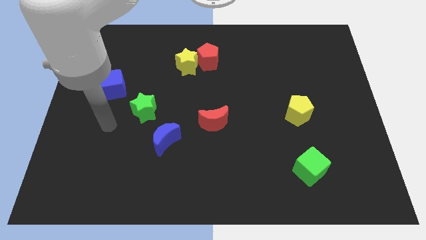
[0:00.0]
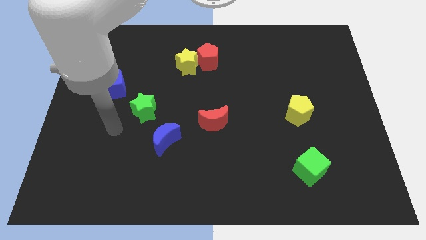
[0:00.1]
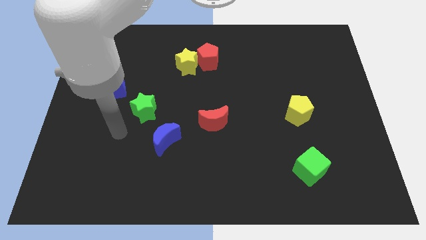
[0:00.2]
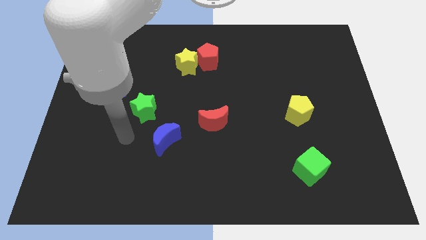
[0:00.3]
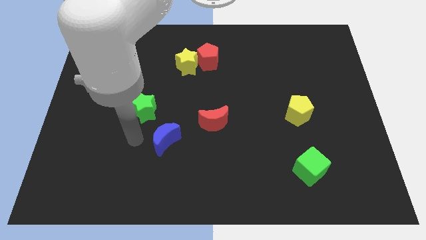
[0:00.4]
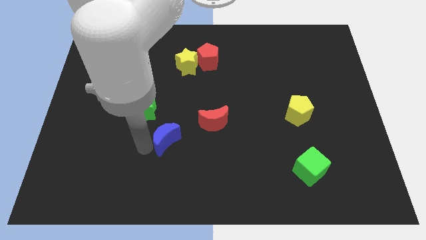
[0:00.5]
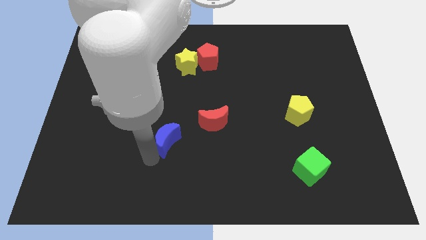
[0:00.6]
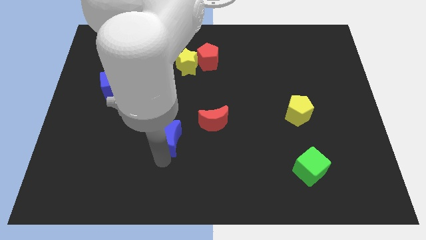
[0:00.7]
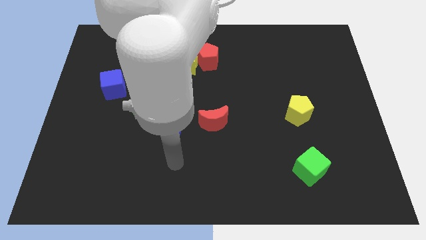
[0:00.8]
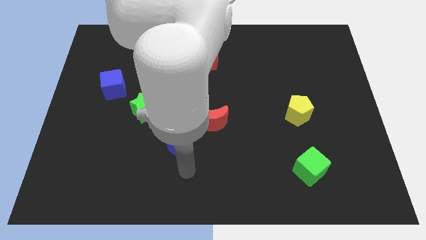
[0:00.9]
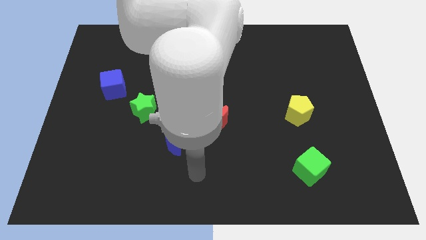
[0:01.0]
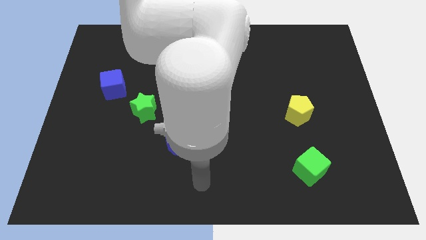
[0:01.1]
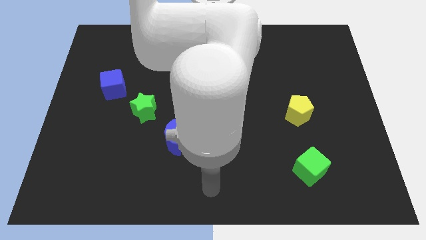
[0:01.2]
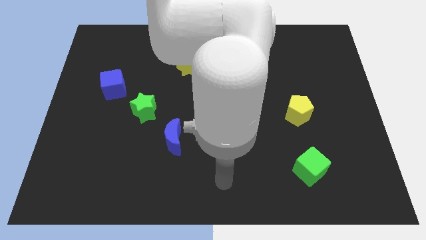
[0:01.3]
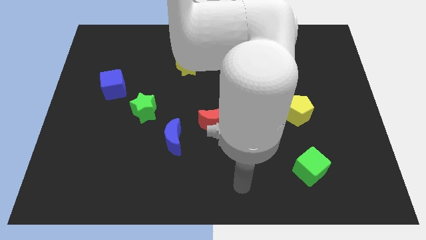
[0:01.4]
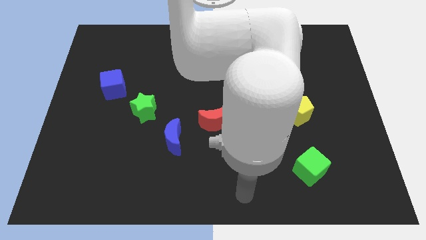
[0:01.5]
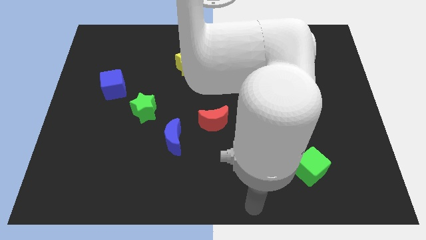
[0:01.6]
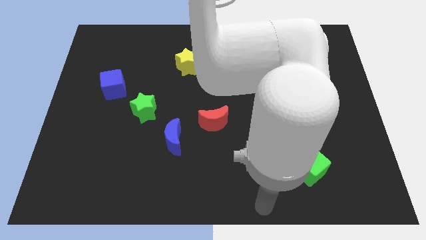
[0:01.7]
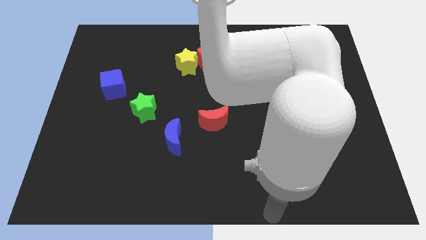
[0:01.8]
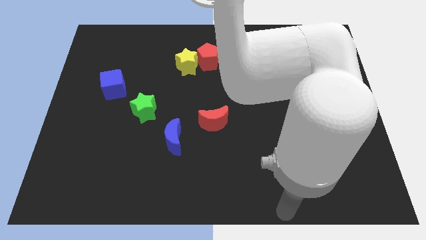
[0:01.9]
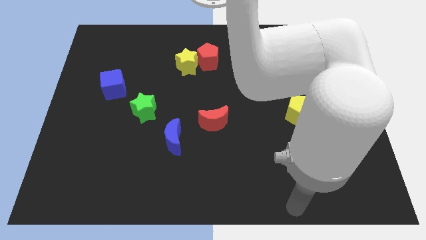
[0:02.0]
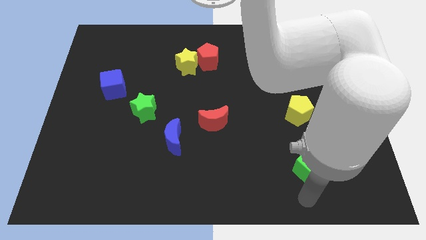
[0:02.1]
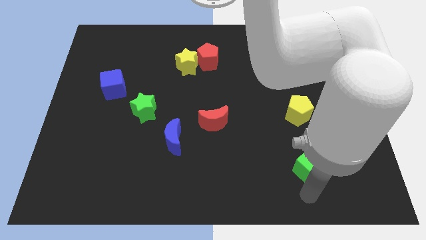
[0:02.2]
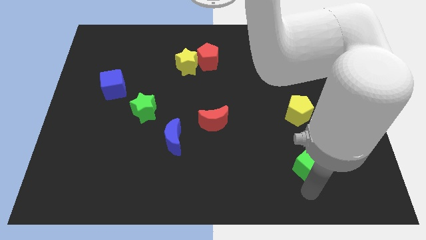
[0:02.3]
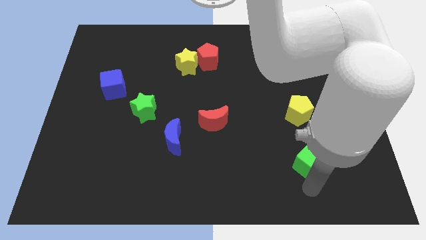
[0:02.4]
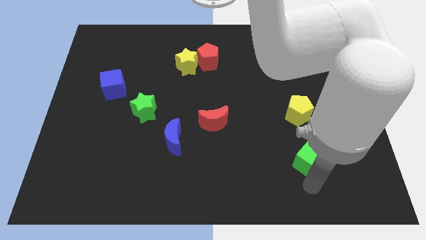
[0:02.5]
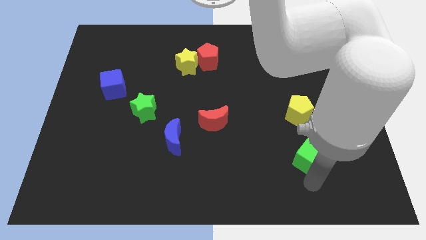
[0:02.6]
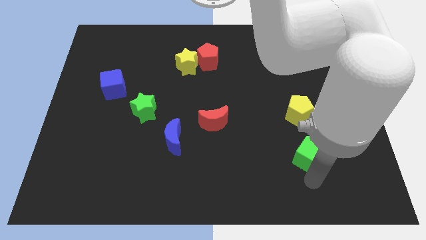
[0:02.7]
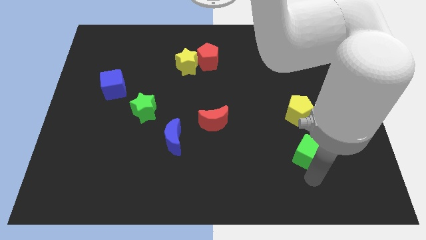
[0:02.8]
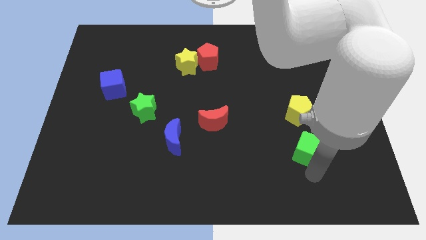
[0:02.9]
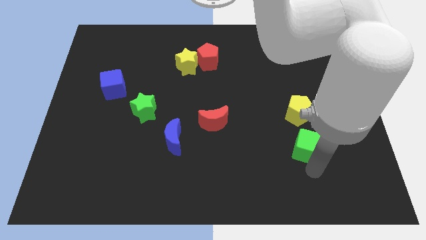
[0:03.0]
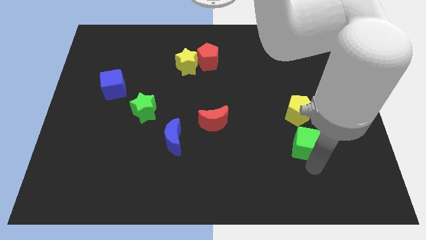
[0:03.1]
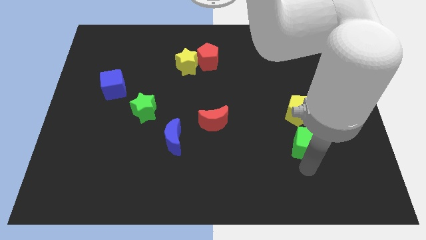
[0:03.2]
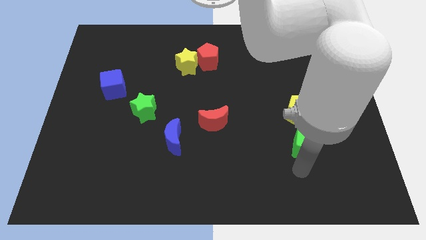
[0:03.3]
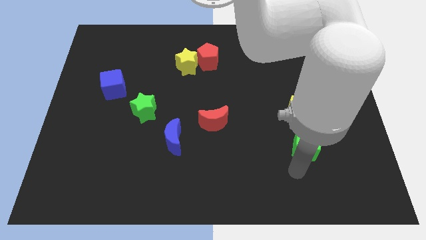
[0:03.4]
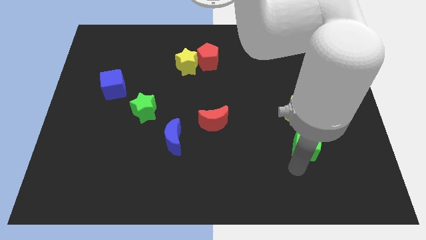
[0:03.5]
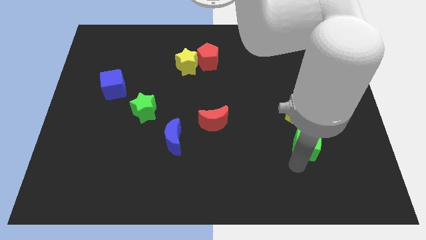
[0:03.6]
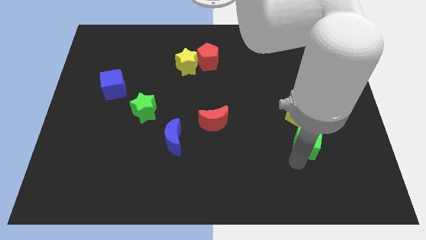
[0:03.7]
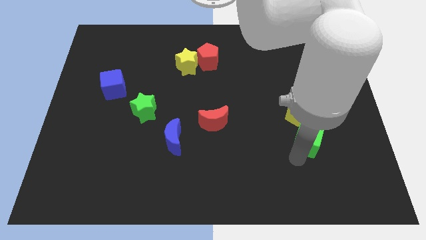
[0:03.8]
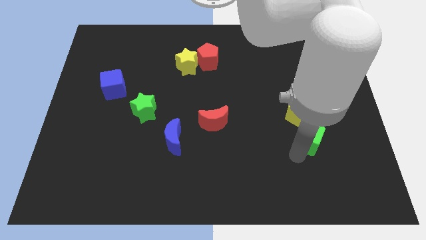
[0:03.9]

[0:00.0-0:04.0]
push the green cube upwards a bit

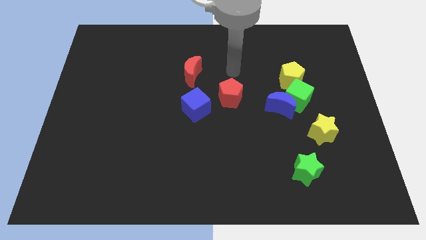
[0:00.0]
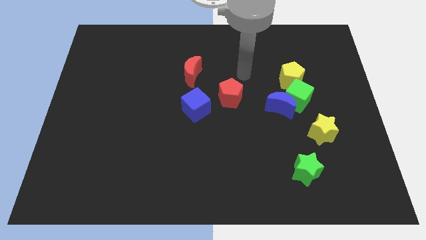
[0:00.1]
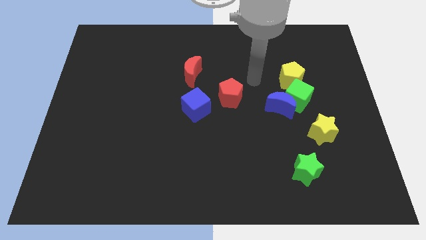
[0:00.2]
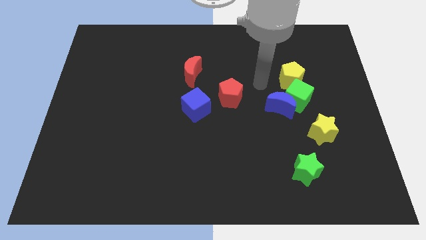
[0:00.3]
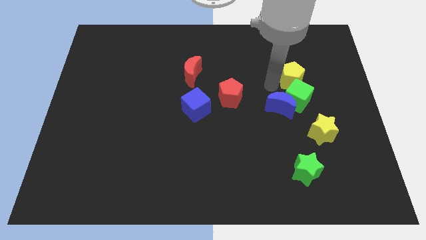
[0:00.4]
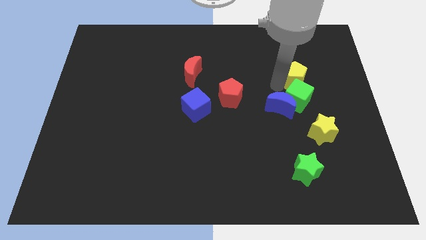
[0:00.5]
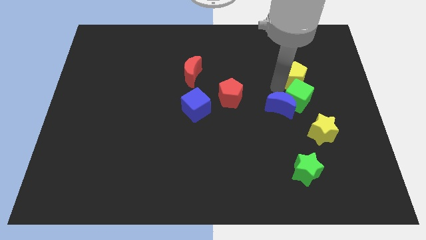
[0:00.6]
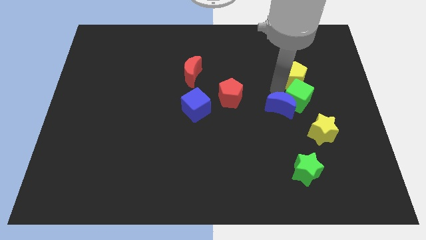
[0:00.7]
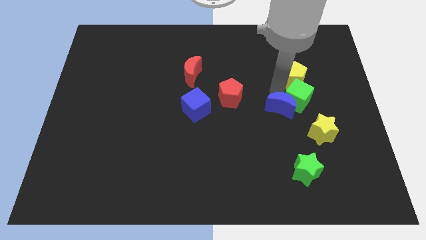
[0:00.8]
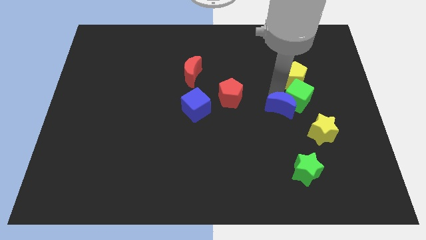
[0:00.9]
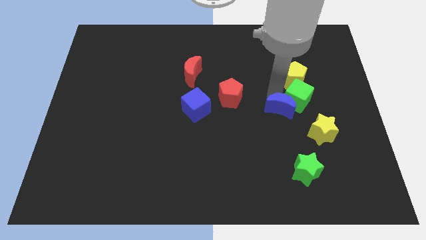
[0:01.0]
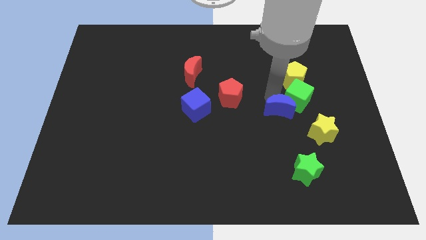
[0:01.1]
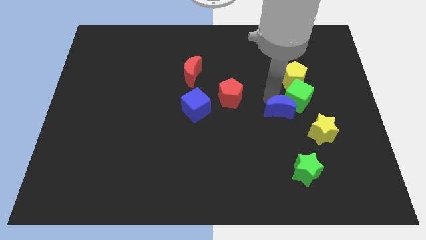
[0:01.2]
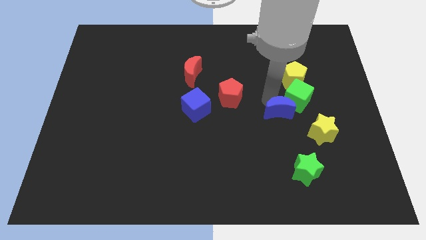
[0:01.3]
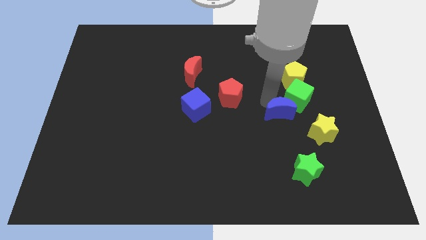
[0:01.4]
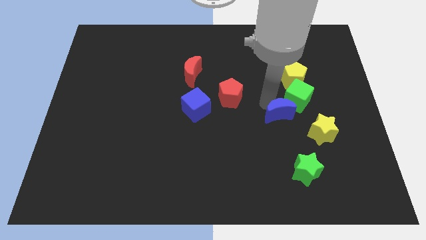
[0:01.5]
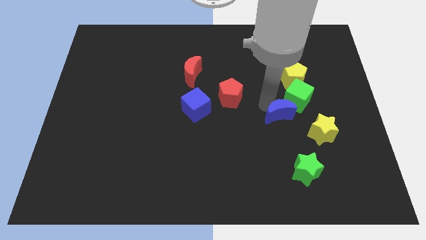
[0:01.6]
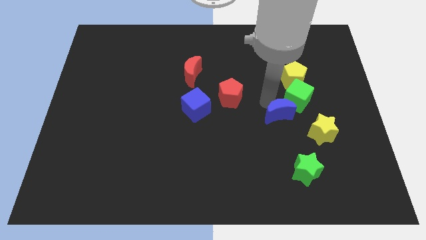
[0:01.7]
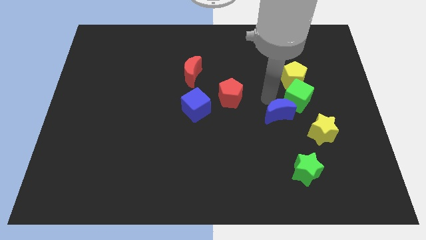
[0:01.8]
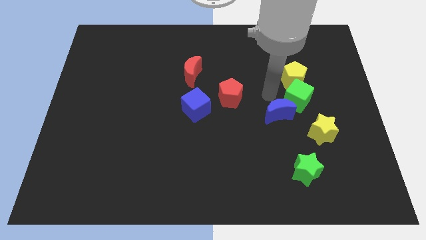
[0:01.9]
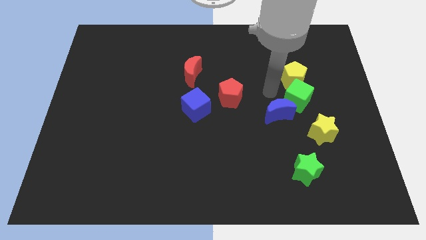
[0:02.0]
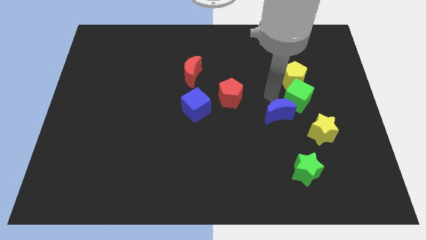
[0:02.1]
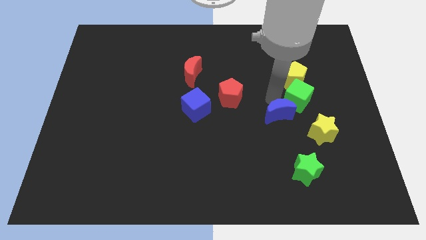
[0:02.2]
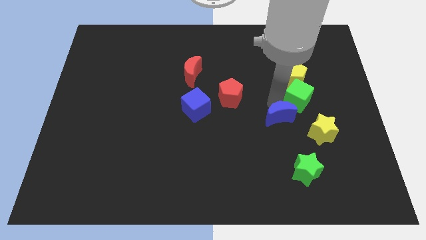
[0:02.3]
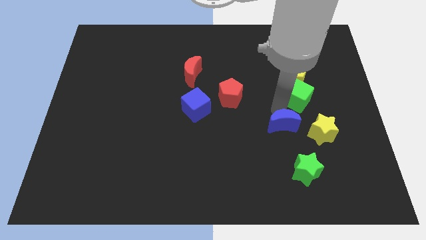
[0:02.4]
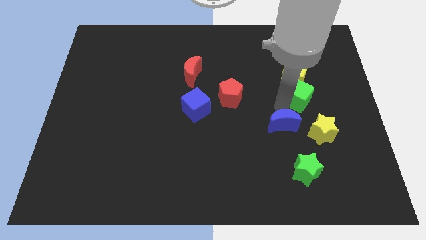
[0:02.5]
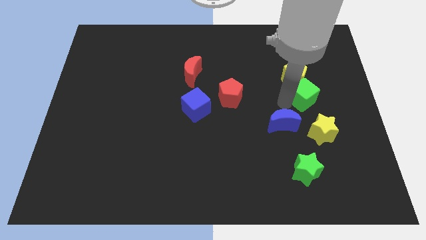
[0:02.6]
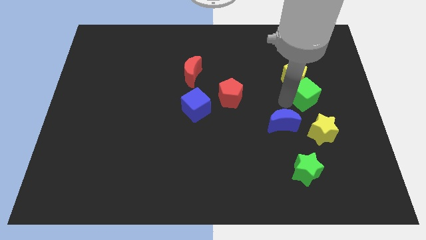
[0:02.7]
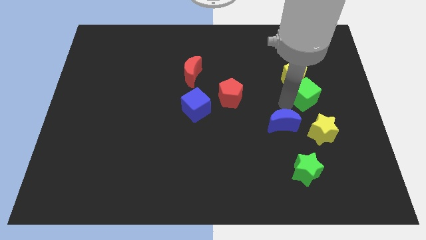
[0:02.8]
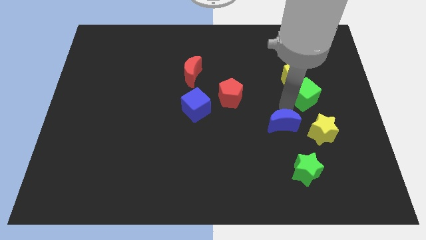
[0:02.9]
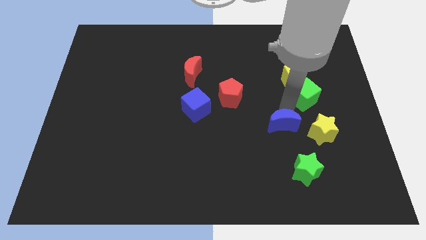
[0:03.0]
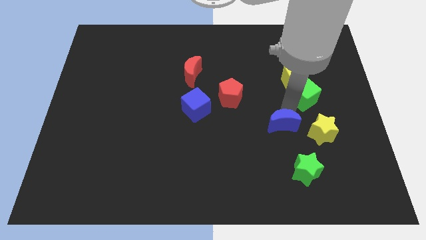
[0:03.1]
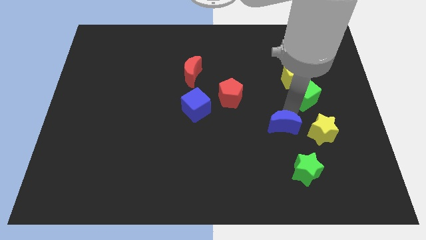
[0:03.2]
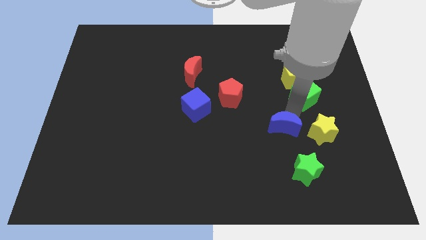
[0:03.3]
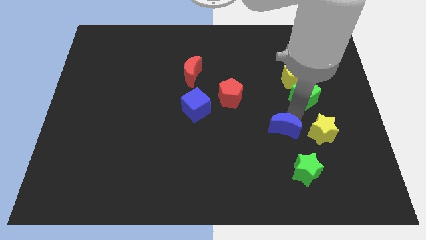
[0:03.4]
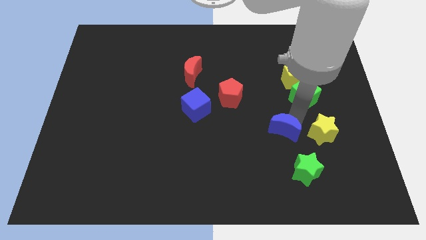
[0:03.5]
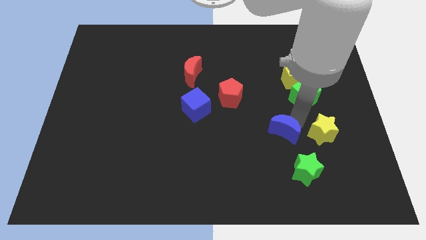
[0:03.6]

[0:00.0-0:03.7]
slightly slide the blue moon downwards

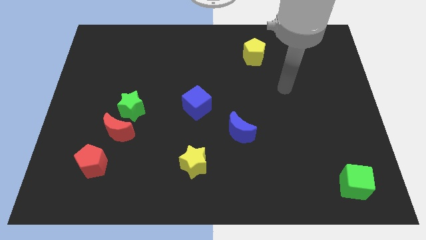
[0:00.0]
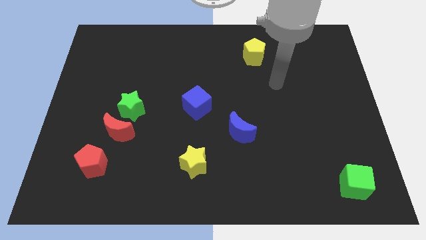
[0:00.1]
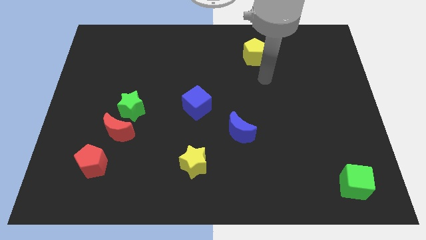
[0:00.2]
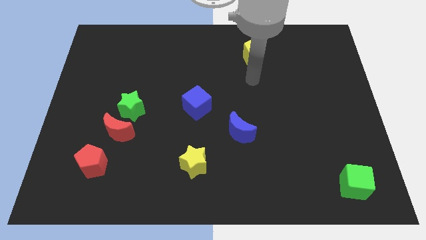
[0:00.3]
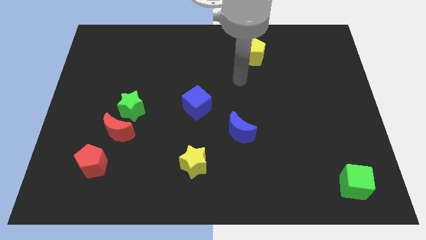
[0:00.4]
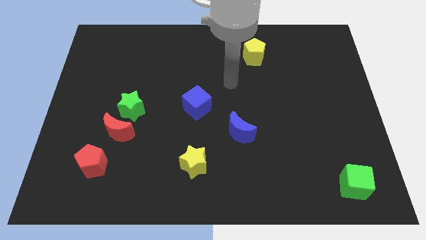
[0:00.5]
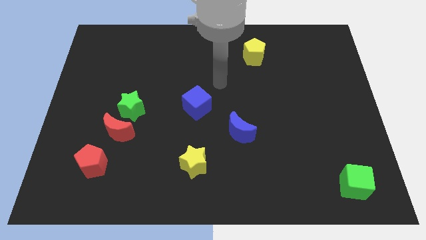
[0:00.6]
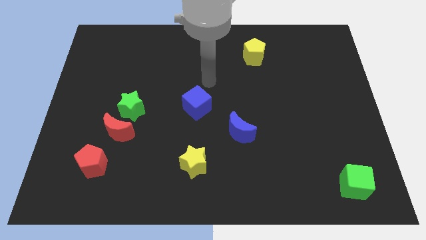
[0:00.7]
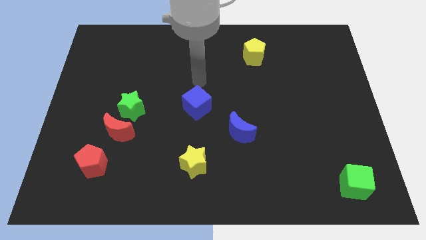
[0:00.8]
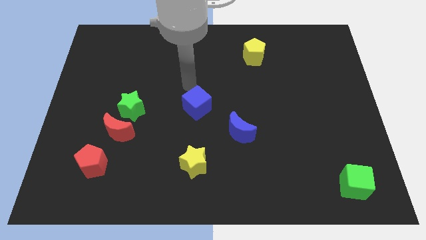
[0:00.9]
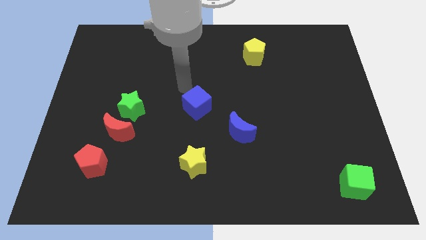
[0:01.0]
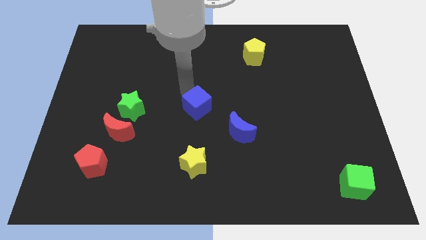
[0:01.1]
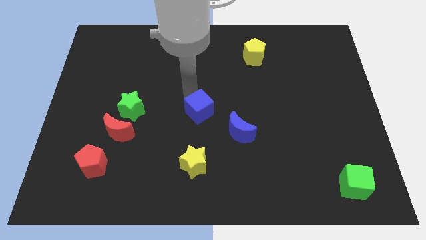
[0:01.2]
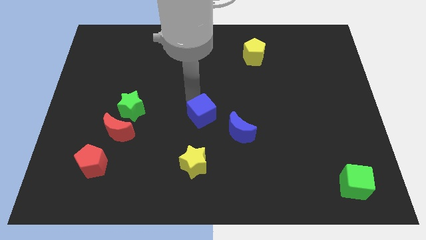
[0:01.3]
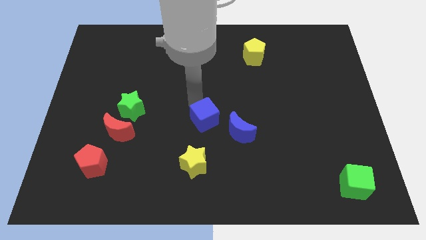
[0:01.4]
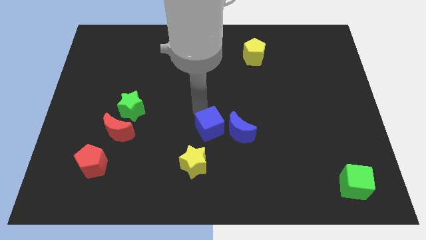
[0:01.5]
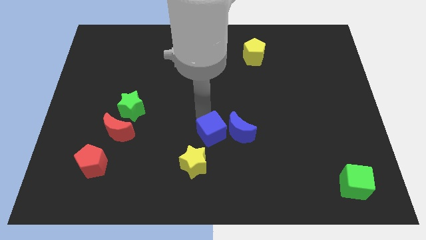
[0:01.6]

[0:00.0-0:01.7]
slightly push the blue cube down and then right
